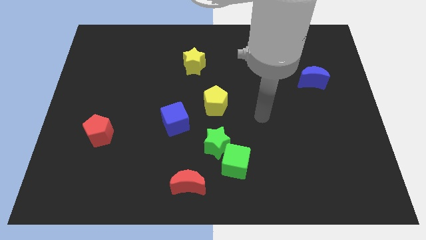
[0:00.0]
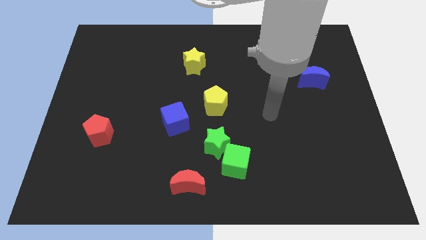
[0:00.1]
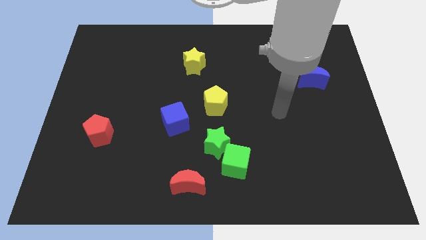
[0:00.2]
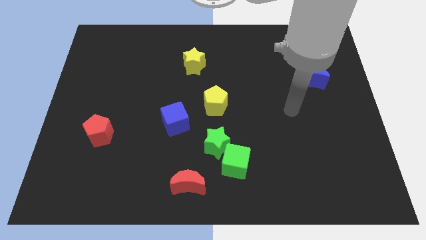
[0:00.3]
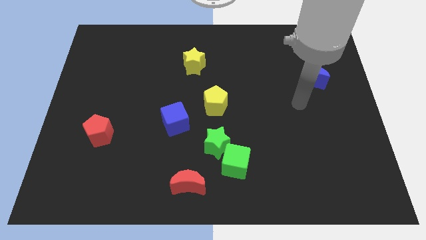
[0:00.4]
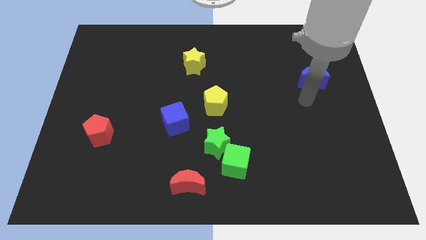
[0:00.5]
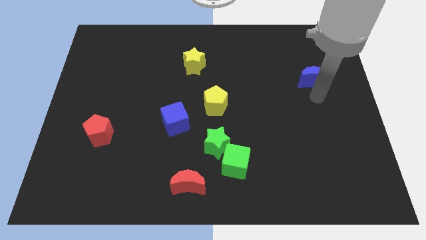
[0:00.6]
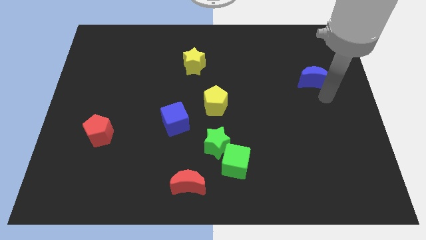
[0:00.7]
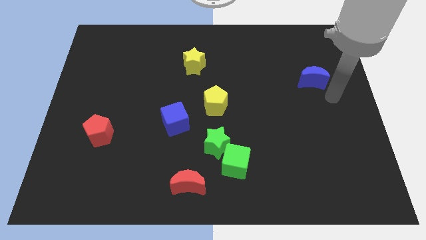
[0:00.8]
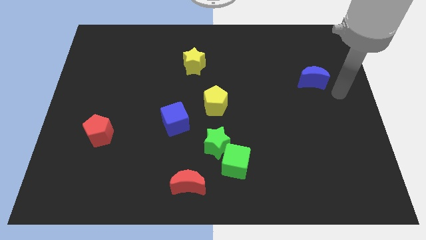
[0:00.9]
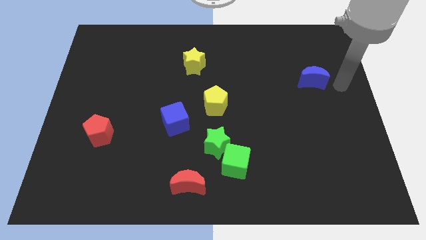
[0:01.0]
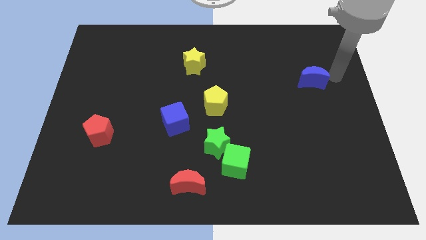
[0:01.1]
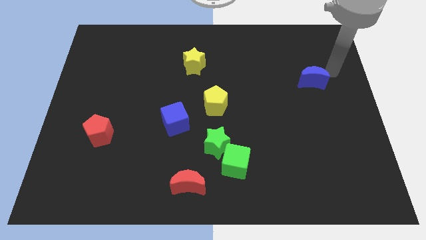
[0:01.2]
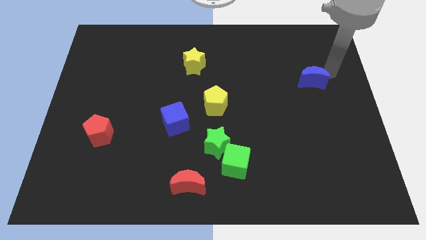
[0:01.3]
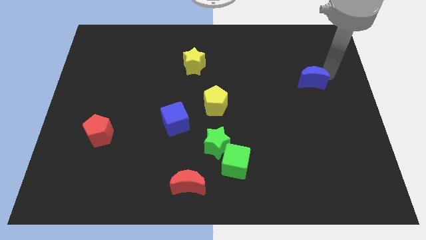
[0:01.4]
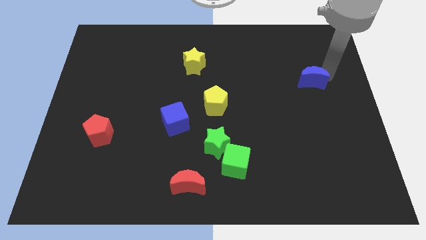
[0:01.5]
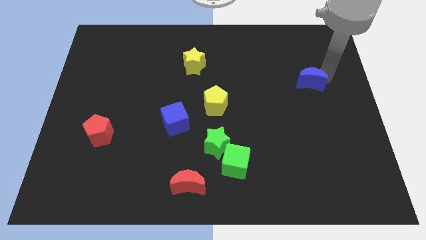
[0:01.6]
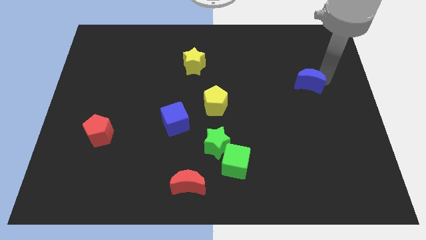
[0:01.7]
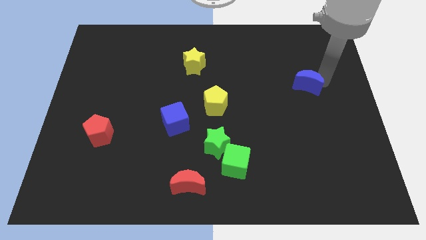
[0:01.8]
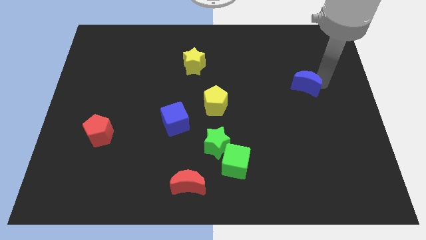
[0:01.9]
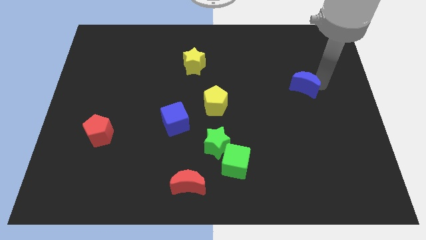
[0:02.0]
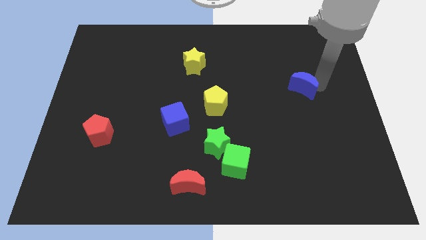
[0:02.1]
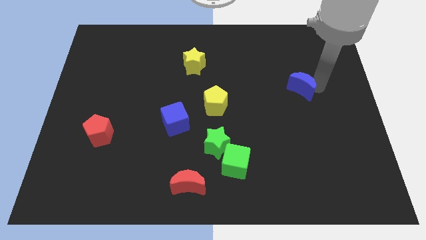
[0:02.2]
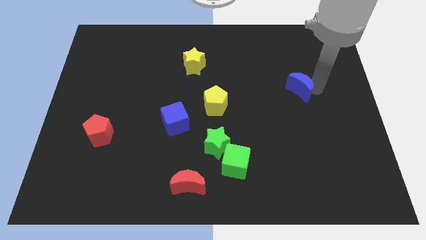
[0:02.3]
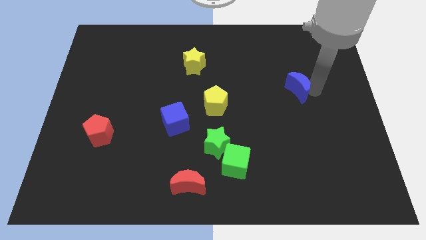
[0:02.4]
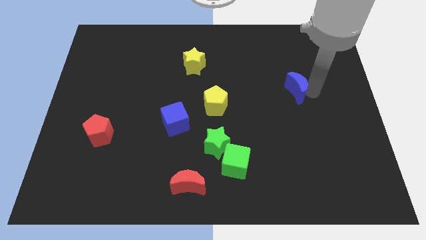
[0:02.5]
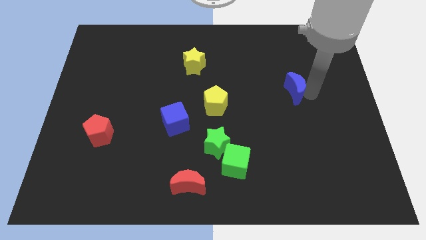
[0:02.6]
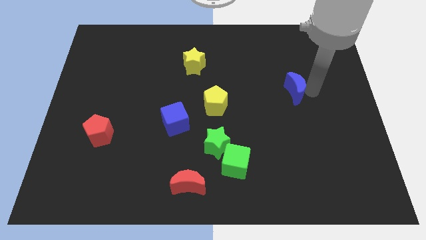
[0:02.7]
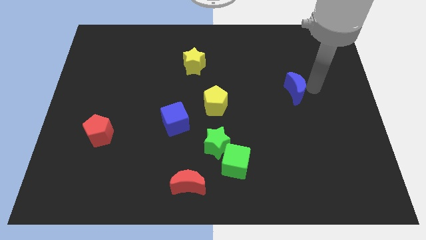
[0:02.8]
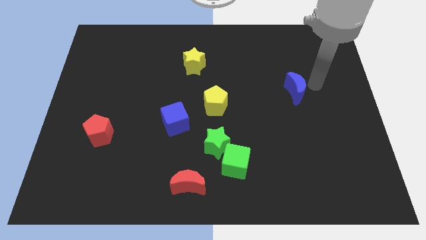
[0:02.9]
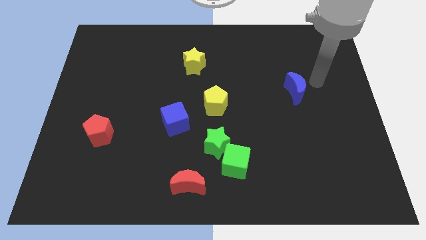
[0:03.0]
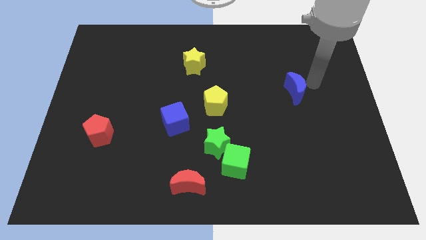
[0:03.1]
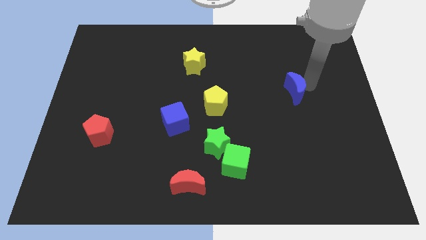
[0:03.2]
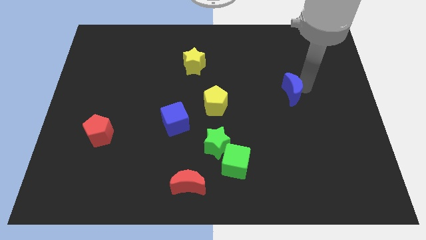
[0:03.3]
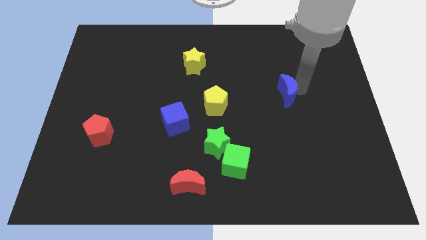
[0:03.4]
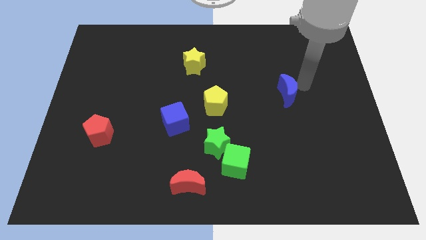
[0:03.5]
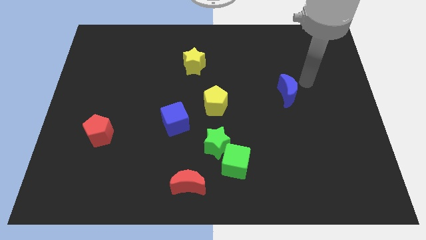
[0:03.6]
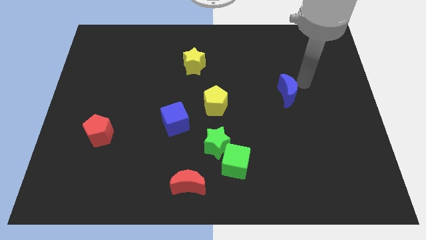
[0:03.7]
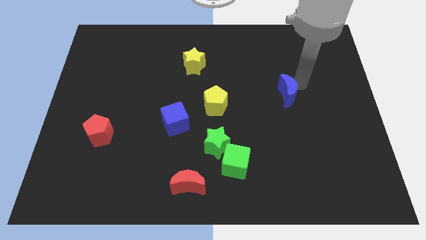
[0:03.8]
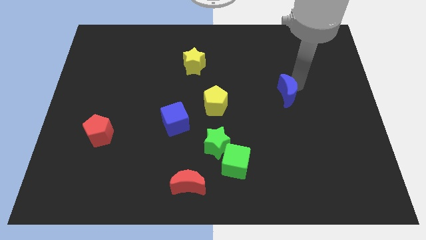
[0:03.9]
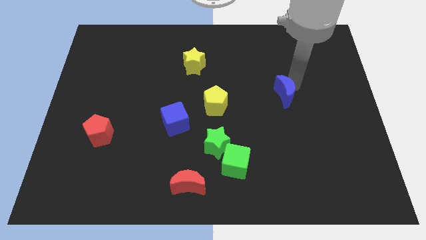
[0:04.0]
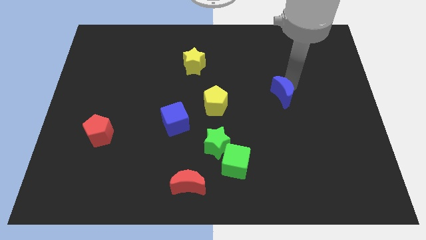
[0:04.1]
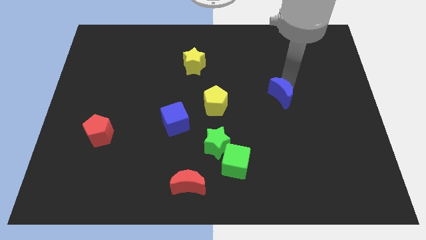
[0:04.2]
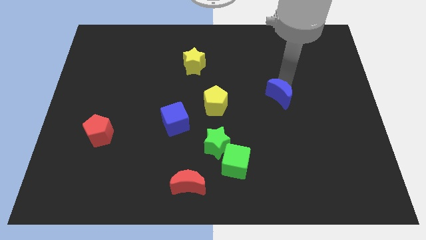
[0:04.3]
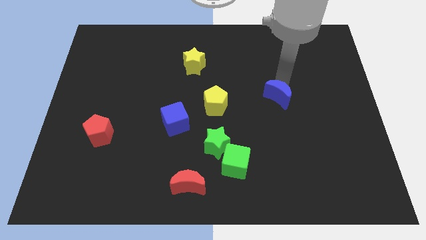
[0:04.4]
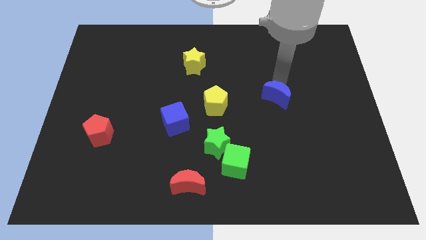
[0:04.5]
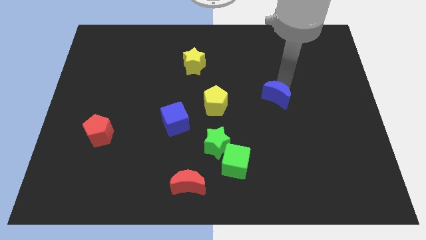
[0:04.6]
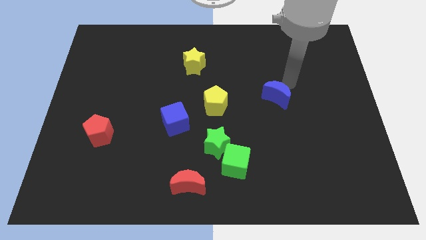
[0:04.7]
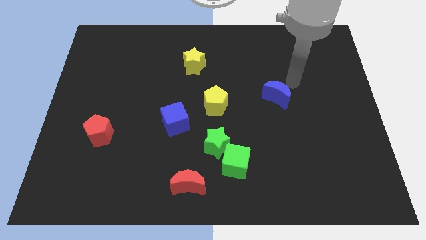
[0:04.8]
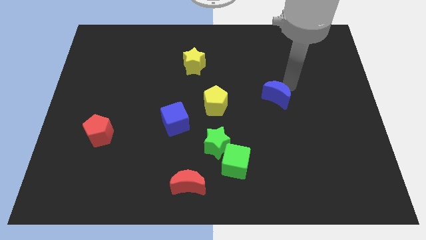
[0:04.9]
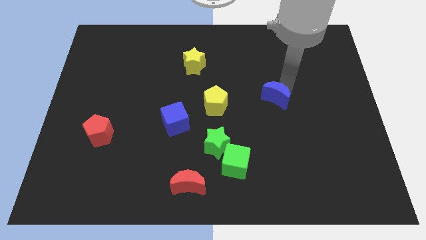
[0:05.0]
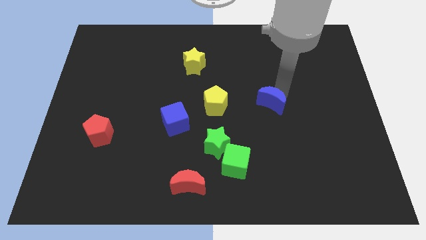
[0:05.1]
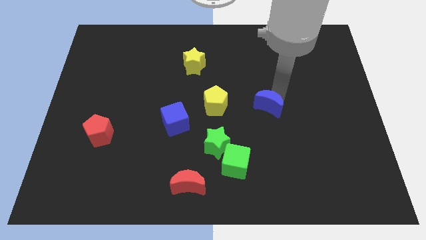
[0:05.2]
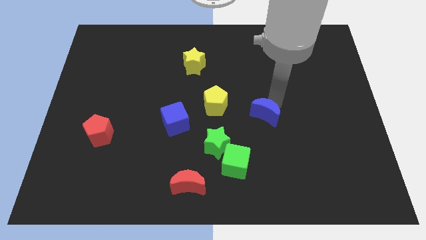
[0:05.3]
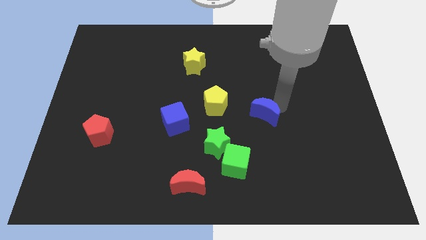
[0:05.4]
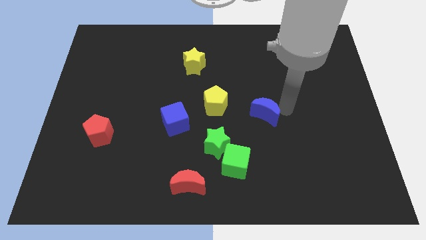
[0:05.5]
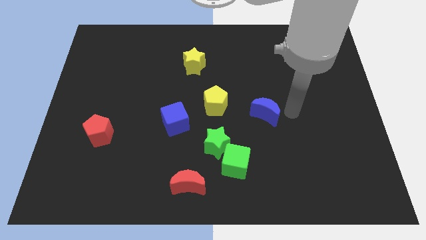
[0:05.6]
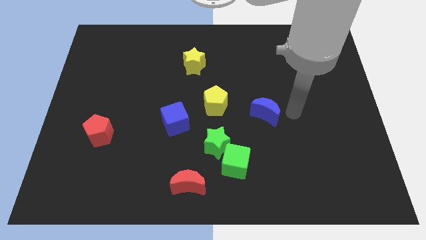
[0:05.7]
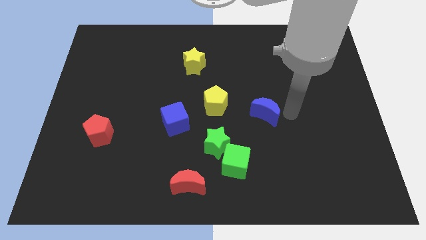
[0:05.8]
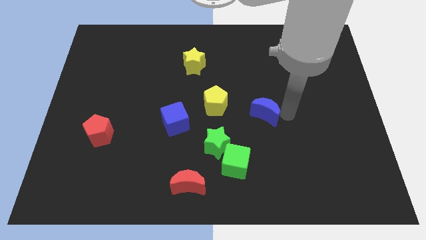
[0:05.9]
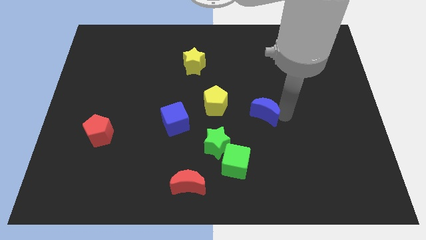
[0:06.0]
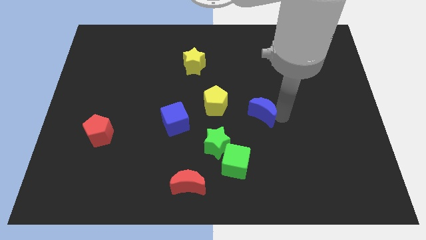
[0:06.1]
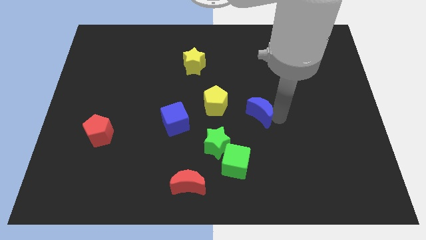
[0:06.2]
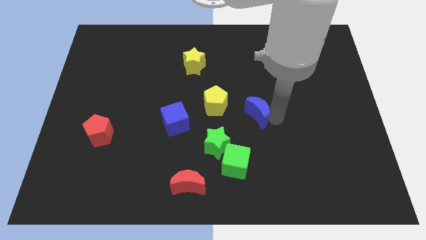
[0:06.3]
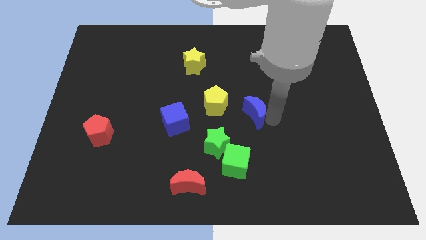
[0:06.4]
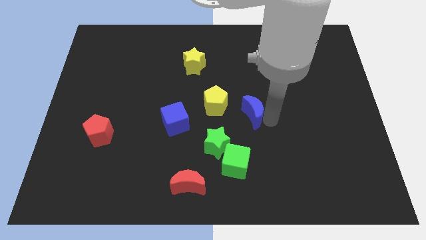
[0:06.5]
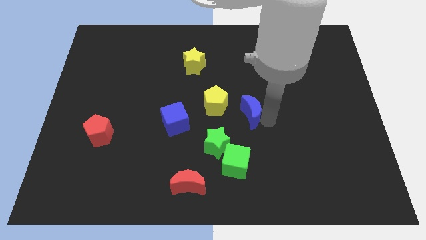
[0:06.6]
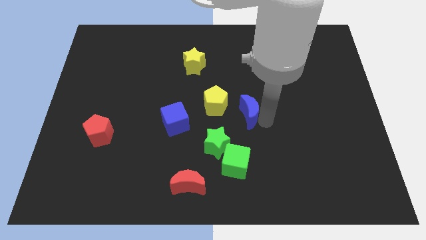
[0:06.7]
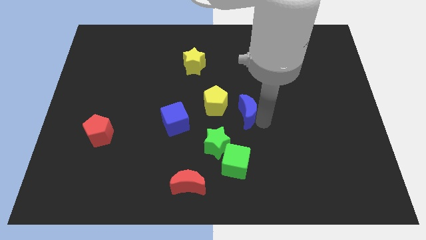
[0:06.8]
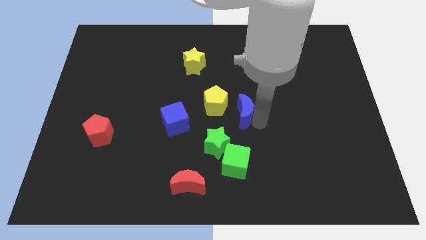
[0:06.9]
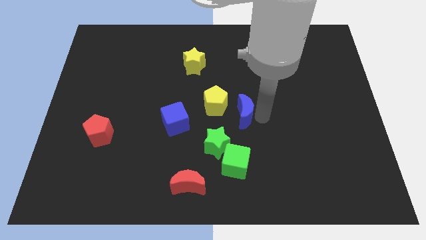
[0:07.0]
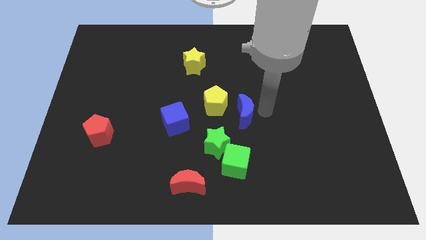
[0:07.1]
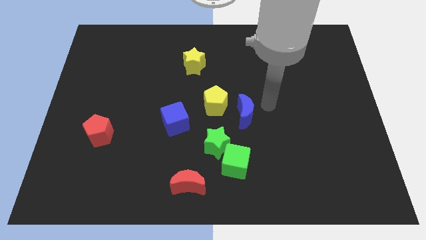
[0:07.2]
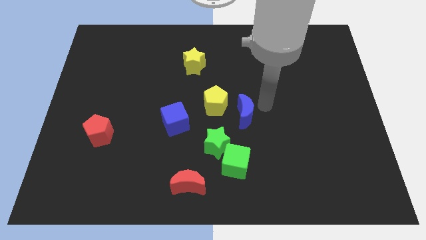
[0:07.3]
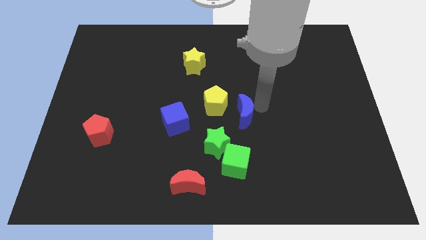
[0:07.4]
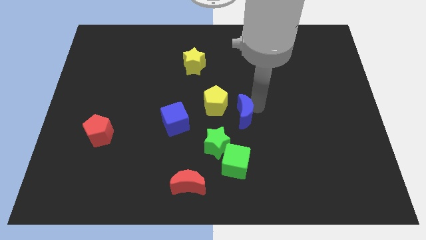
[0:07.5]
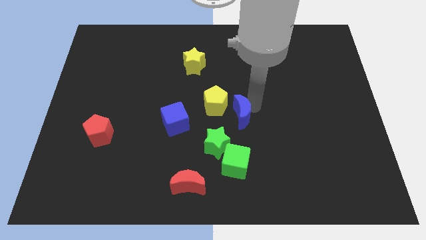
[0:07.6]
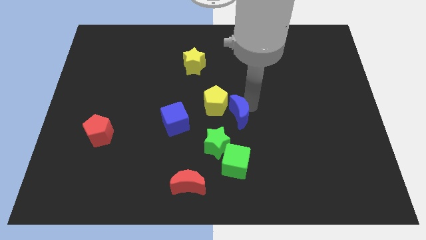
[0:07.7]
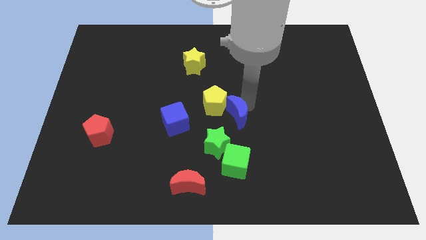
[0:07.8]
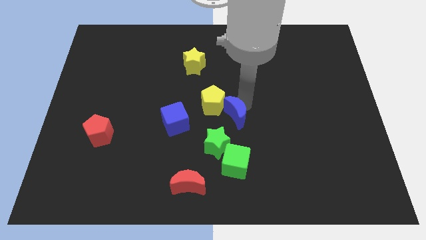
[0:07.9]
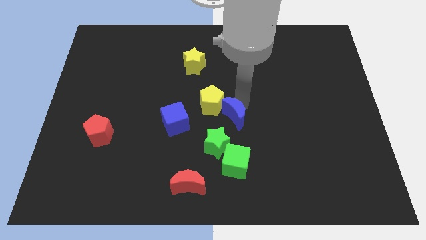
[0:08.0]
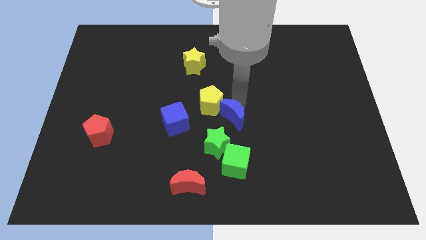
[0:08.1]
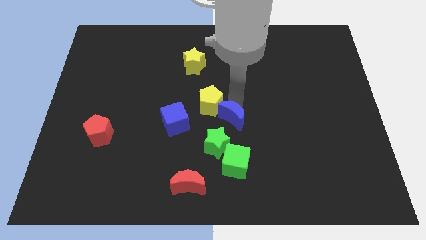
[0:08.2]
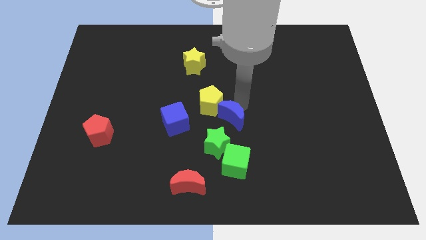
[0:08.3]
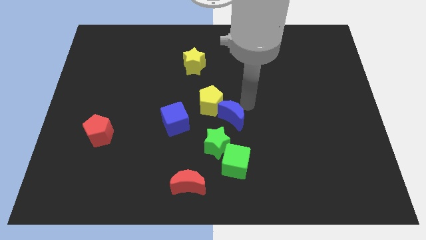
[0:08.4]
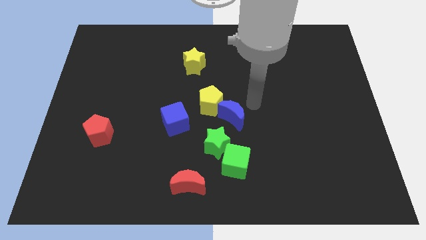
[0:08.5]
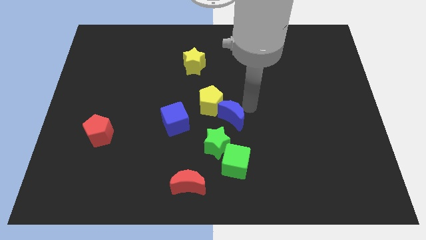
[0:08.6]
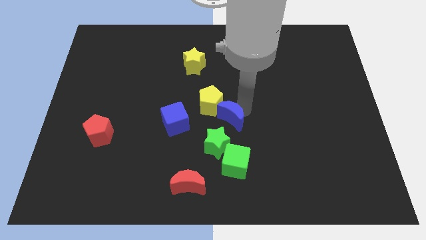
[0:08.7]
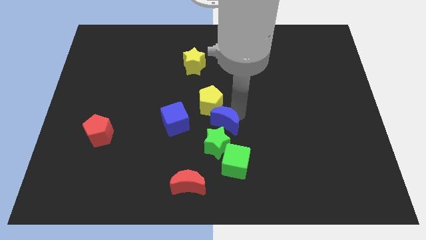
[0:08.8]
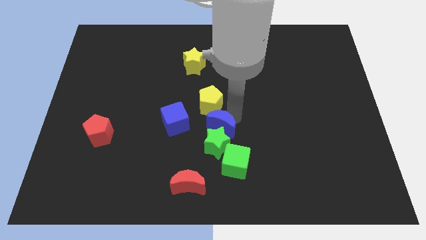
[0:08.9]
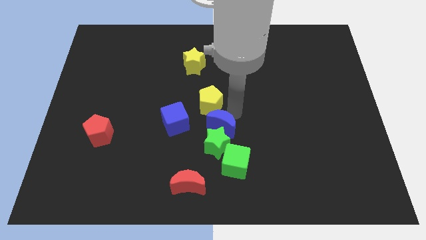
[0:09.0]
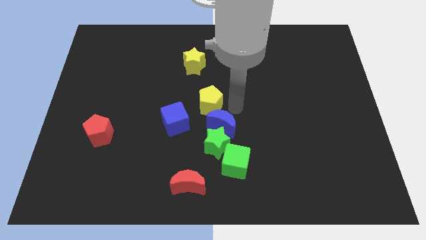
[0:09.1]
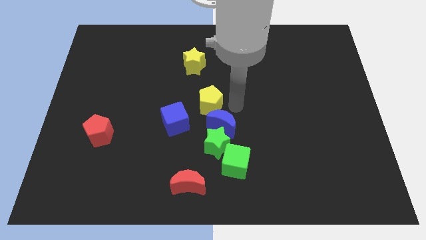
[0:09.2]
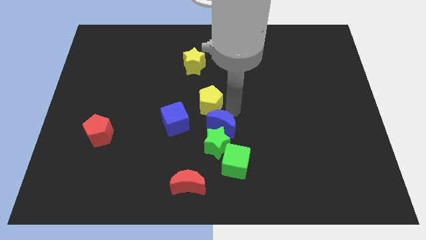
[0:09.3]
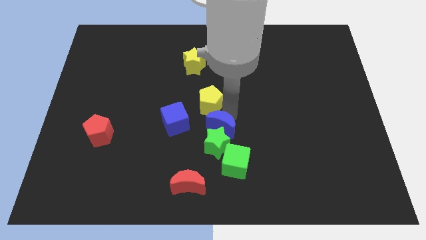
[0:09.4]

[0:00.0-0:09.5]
push the blue moon diagonally up and to the left of the green cube
